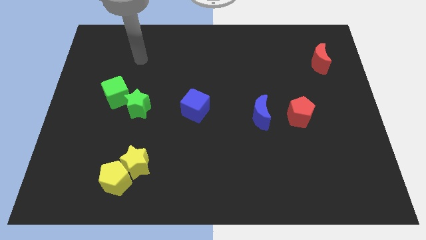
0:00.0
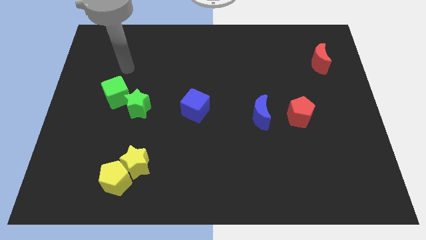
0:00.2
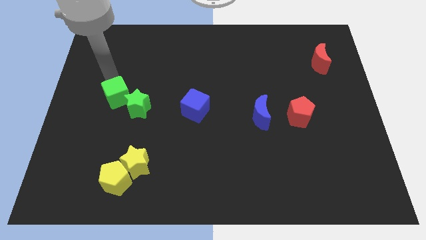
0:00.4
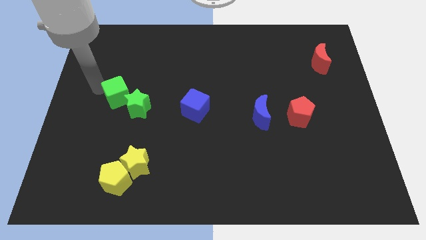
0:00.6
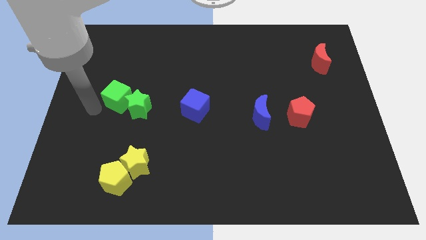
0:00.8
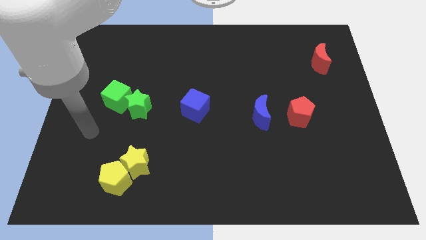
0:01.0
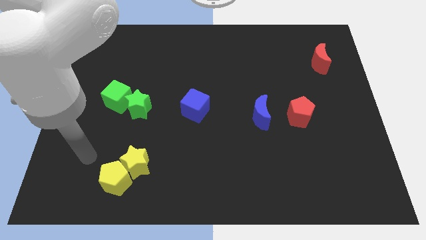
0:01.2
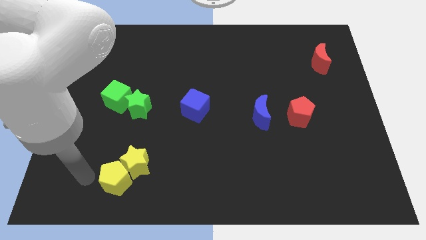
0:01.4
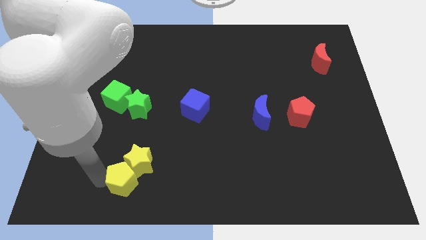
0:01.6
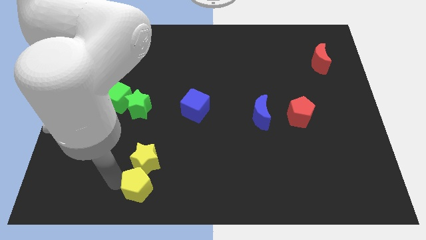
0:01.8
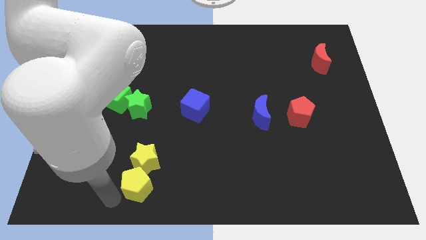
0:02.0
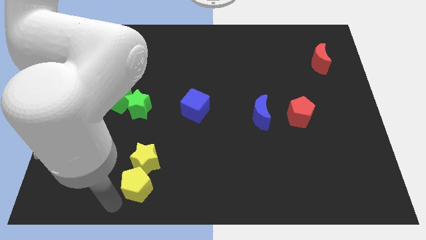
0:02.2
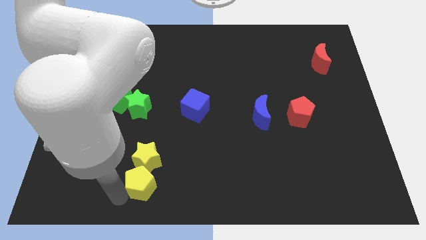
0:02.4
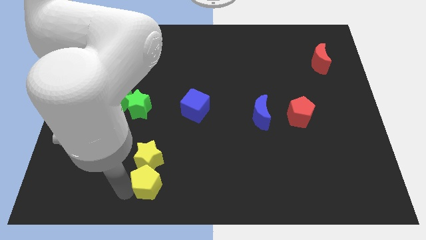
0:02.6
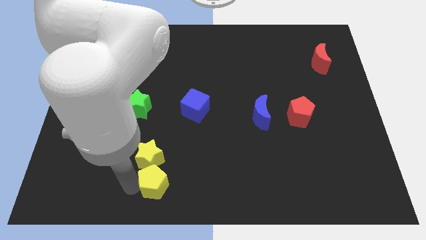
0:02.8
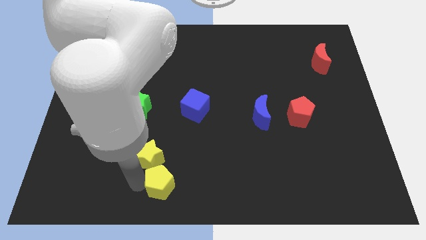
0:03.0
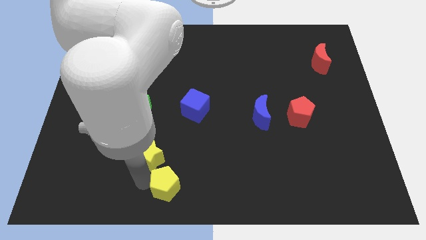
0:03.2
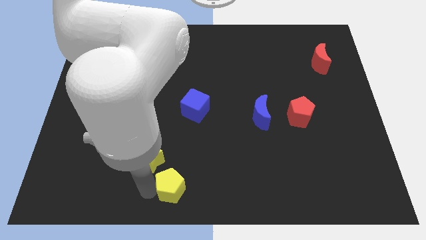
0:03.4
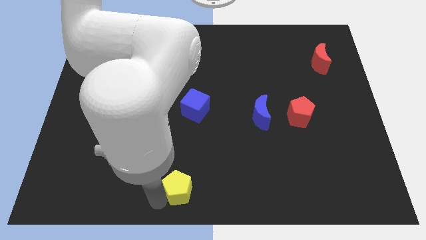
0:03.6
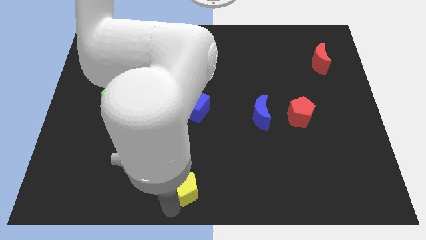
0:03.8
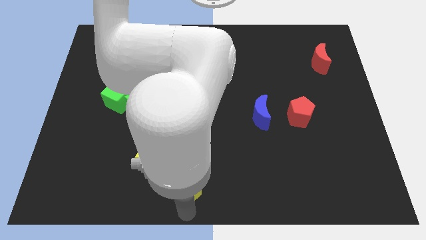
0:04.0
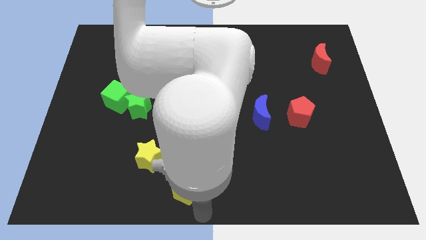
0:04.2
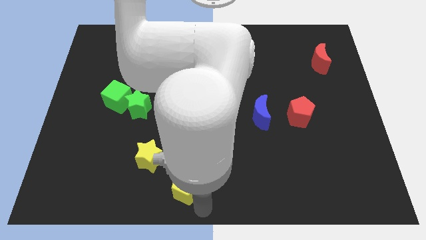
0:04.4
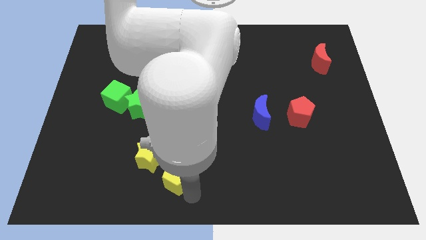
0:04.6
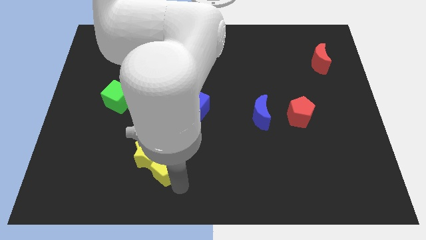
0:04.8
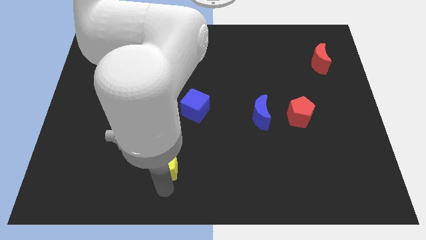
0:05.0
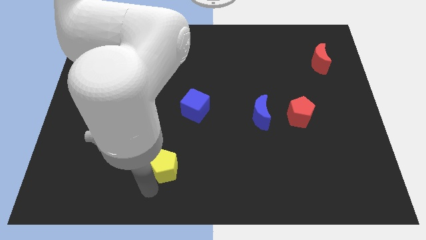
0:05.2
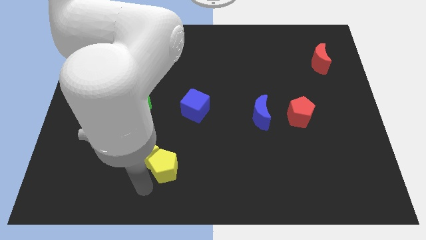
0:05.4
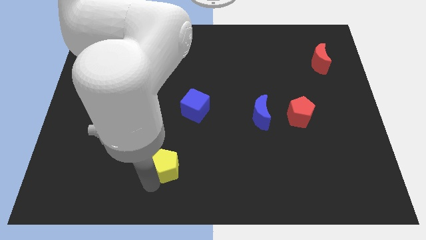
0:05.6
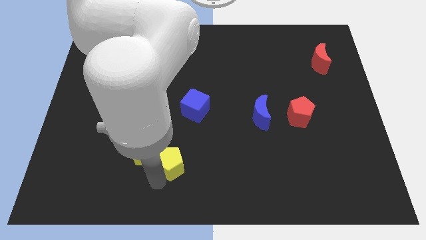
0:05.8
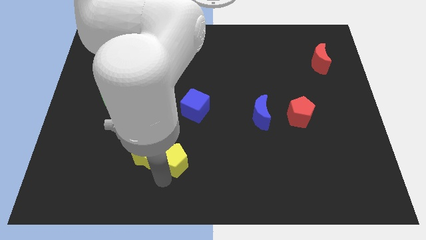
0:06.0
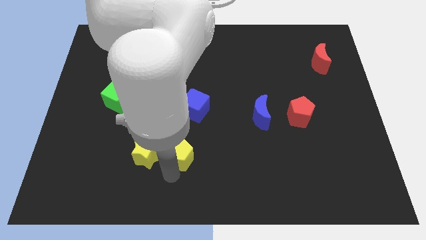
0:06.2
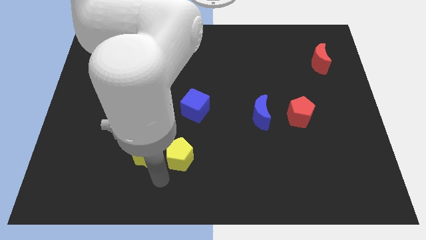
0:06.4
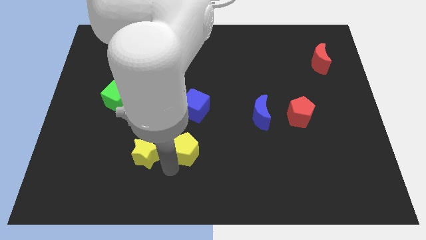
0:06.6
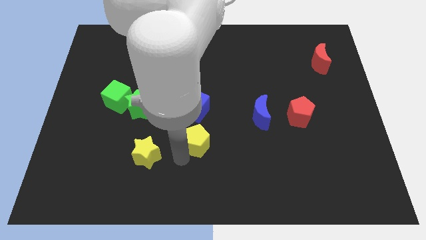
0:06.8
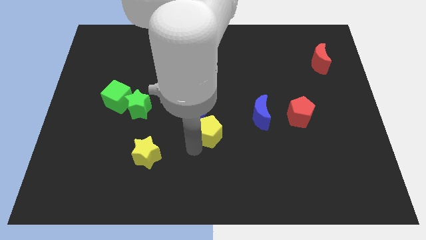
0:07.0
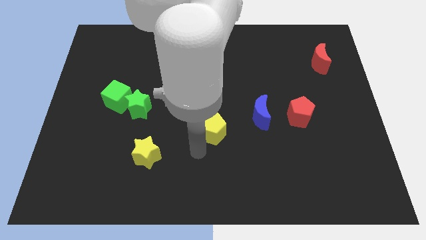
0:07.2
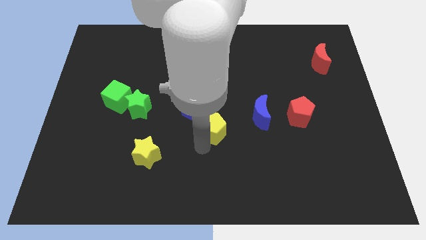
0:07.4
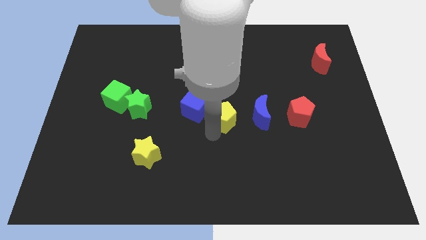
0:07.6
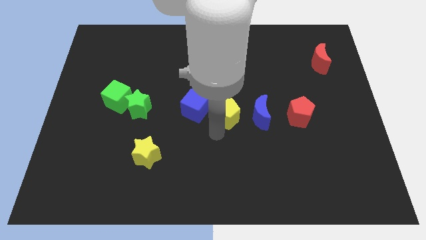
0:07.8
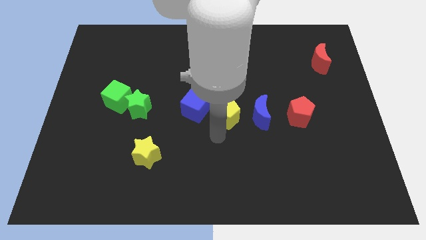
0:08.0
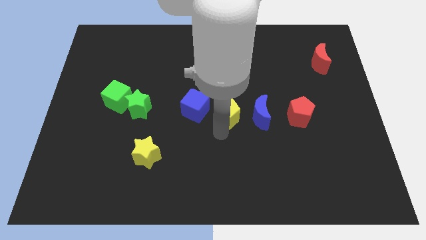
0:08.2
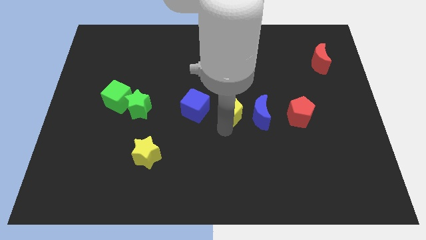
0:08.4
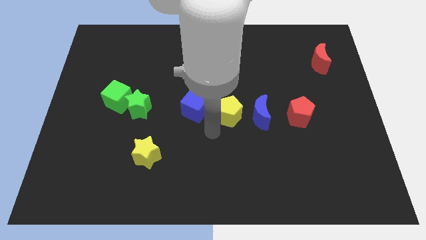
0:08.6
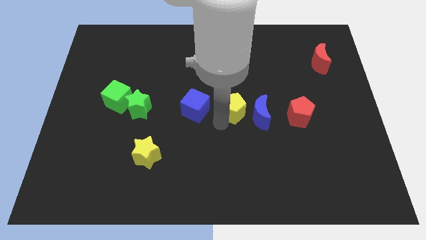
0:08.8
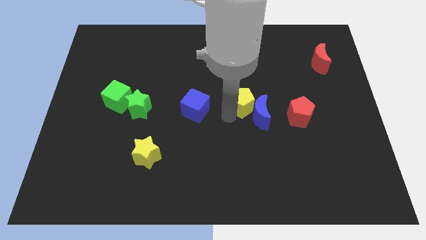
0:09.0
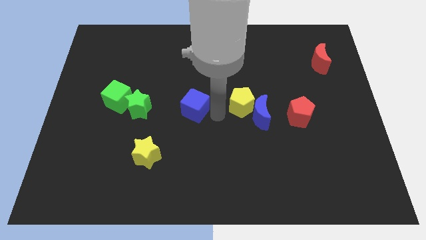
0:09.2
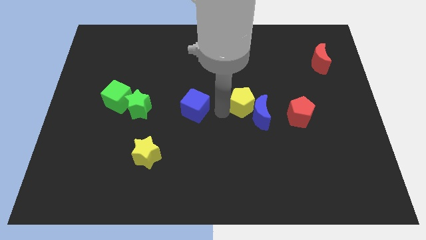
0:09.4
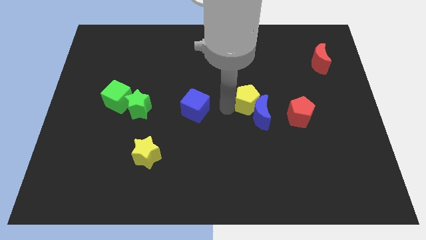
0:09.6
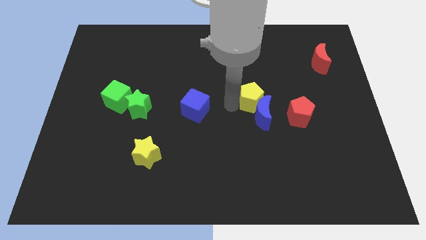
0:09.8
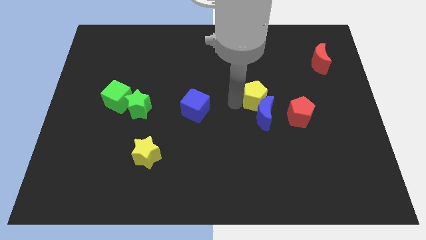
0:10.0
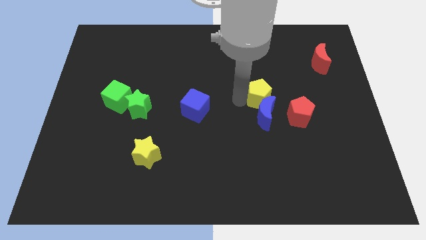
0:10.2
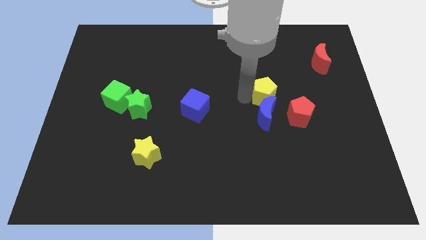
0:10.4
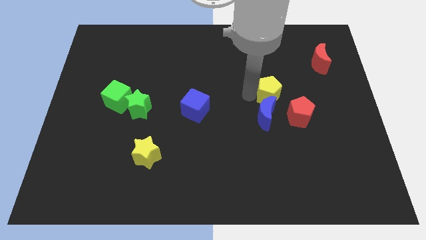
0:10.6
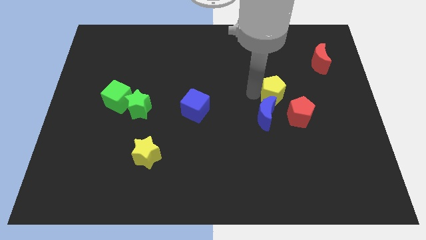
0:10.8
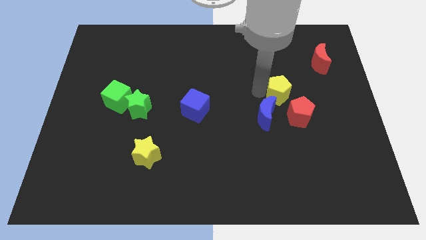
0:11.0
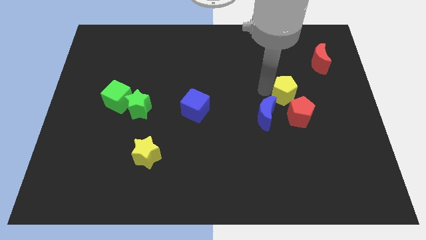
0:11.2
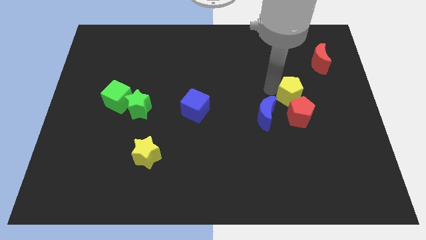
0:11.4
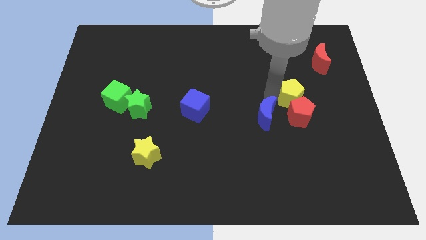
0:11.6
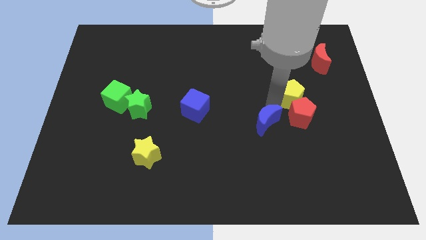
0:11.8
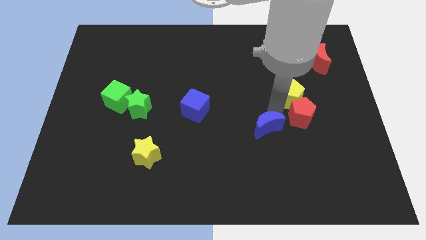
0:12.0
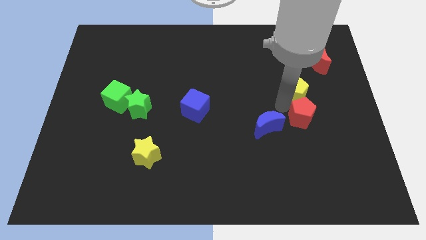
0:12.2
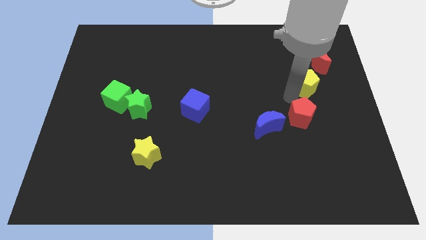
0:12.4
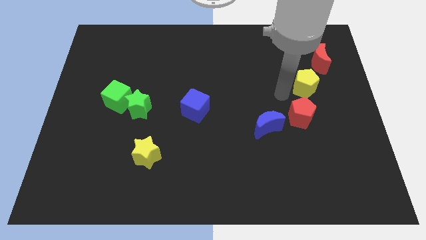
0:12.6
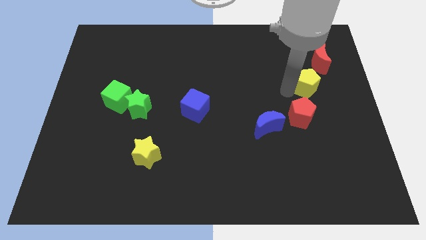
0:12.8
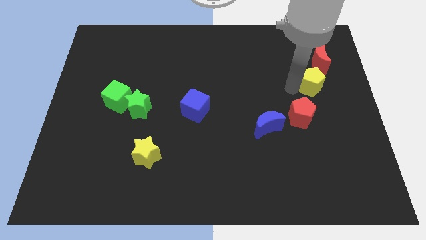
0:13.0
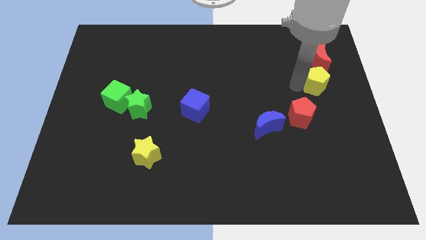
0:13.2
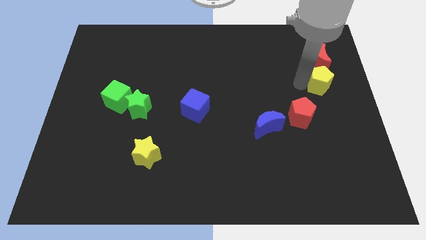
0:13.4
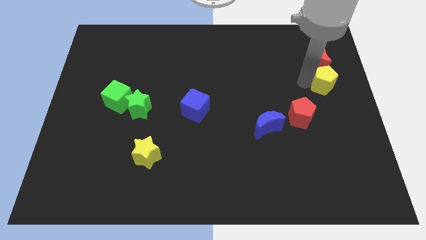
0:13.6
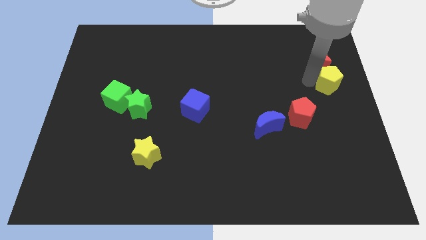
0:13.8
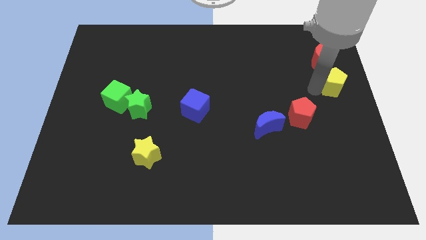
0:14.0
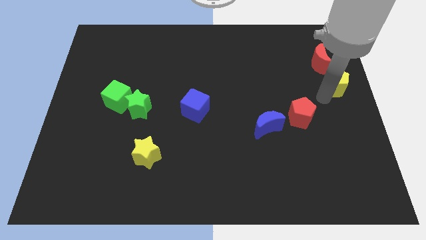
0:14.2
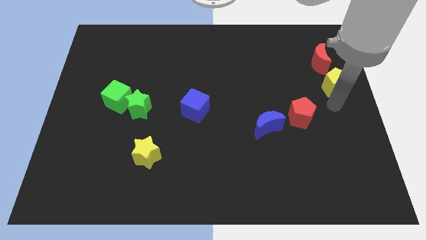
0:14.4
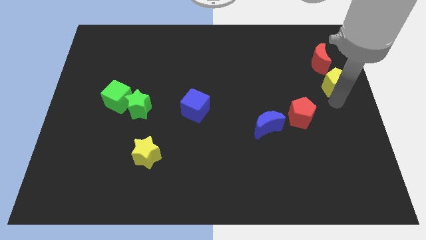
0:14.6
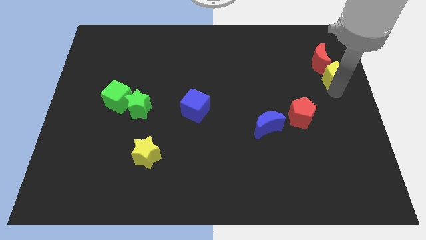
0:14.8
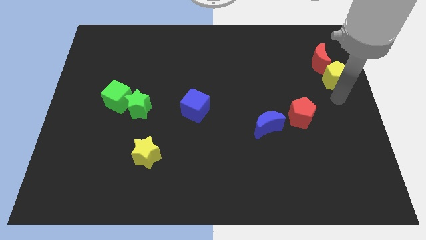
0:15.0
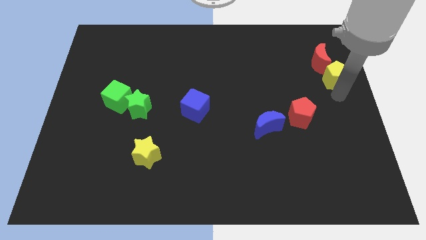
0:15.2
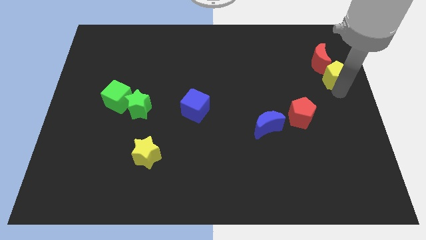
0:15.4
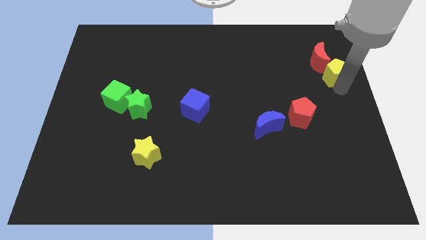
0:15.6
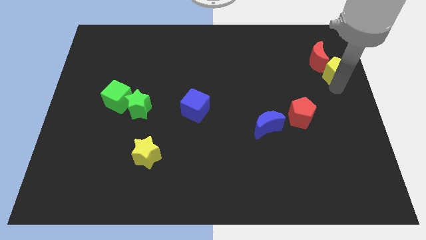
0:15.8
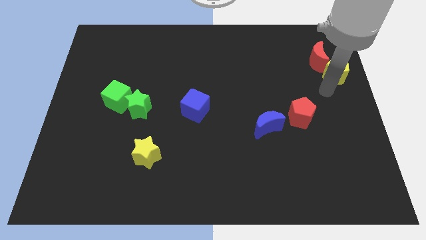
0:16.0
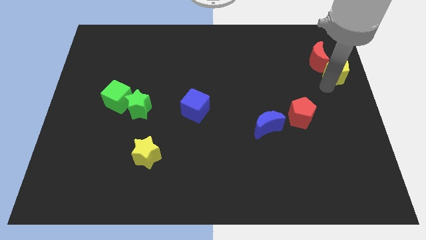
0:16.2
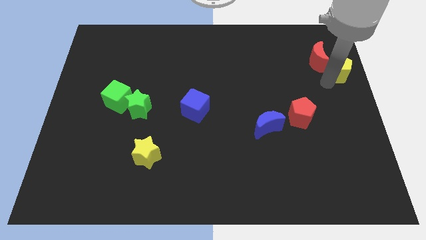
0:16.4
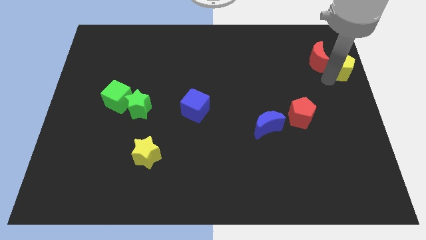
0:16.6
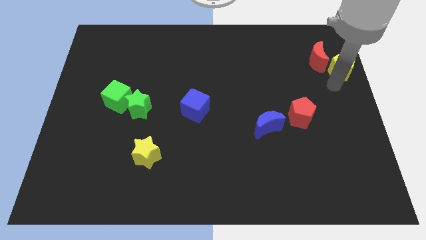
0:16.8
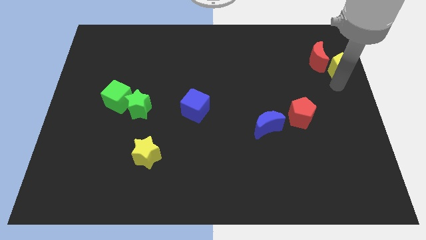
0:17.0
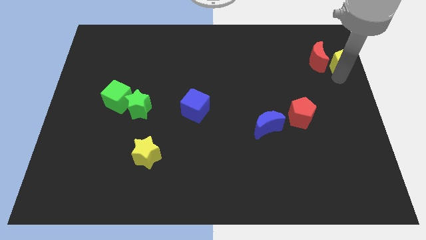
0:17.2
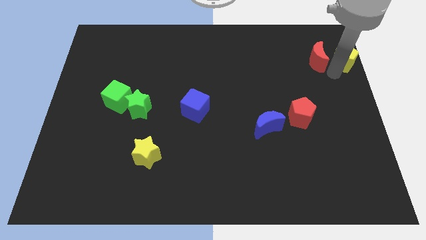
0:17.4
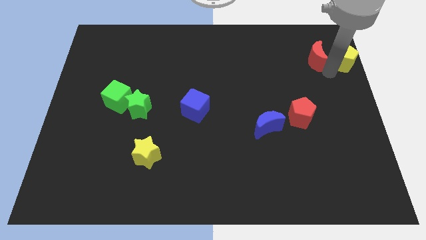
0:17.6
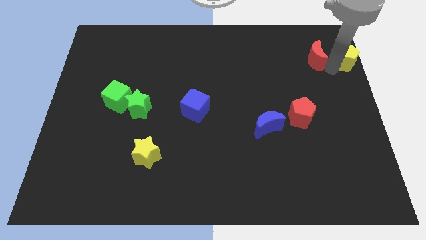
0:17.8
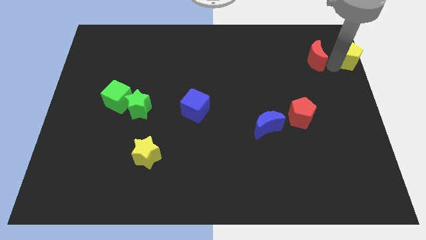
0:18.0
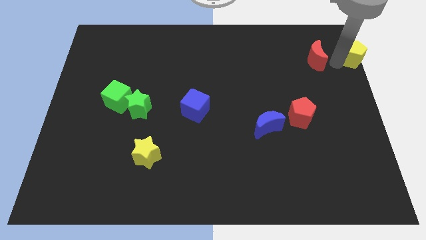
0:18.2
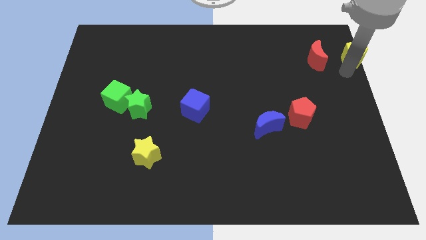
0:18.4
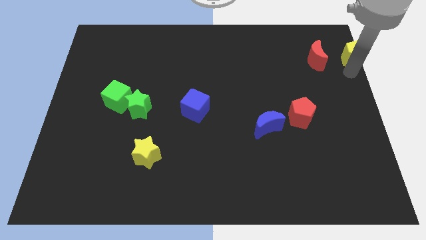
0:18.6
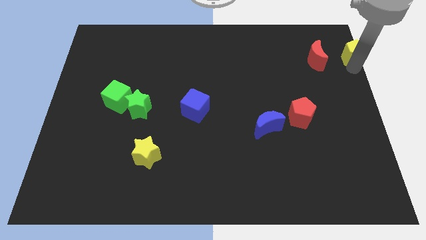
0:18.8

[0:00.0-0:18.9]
push the yellow pentagon to the top right
